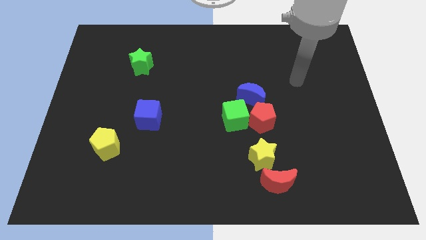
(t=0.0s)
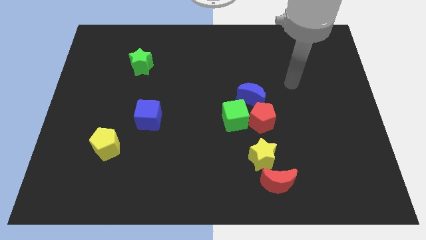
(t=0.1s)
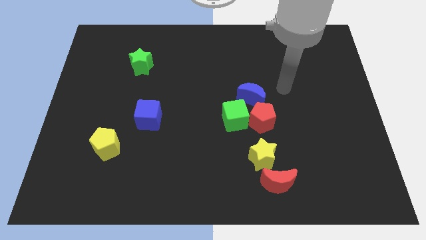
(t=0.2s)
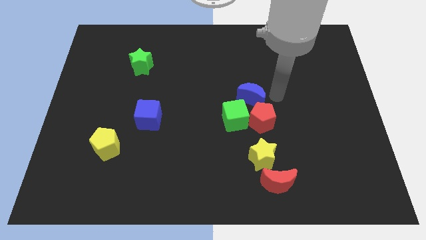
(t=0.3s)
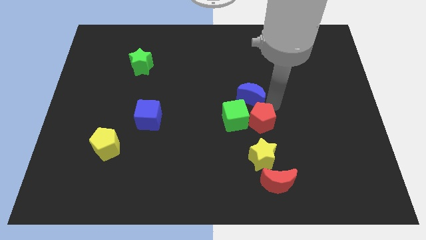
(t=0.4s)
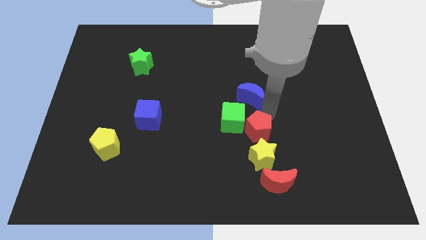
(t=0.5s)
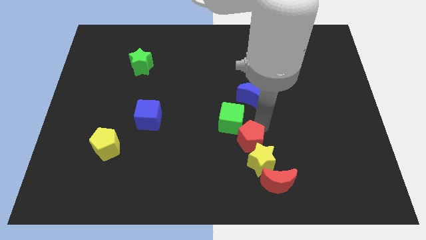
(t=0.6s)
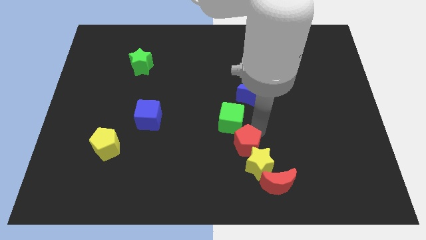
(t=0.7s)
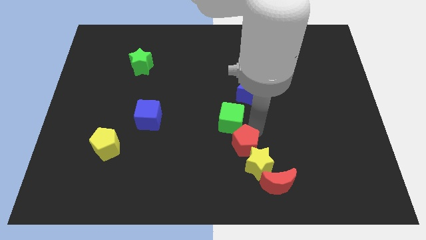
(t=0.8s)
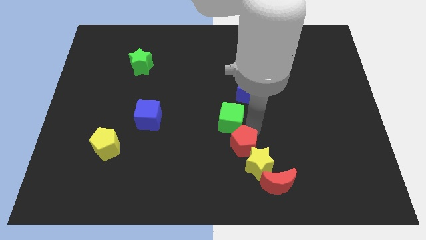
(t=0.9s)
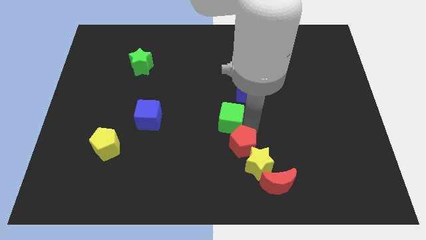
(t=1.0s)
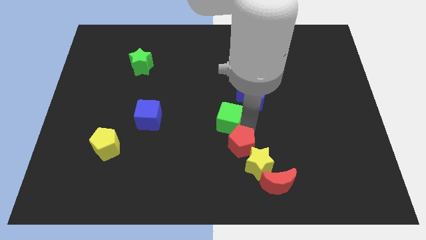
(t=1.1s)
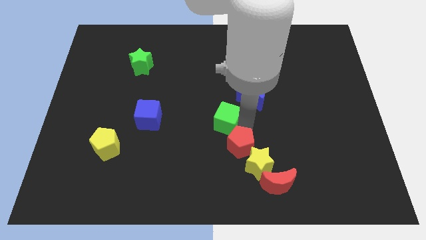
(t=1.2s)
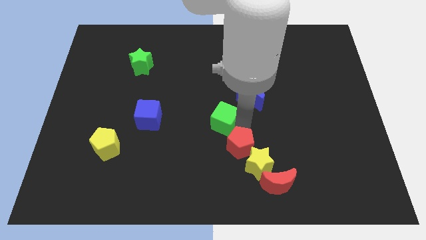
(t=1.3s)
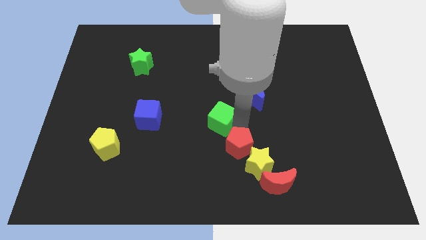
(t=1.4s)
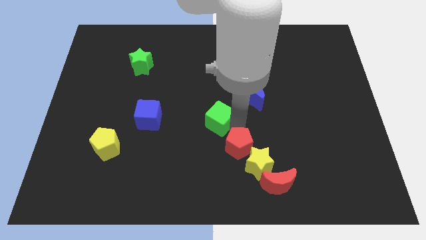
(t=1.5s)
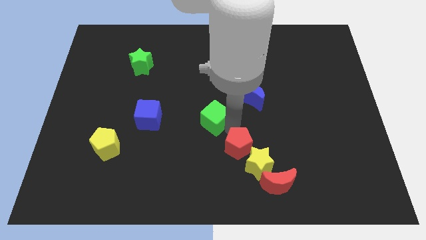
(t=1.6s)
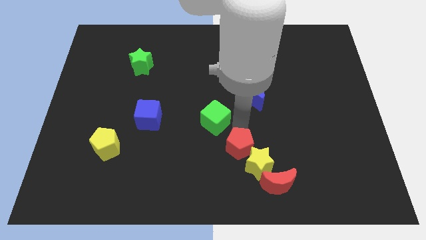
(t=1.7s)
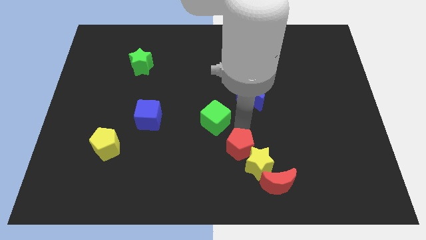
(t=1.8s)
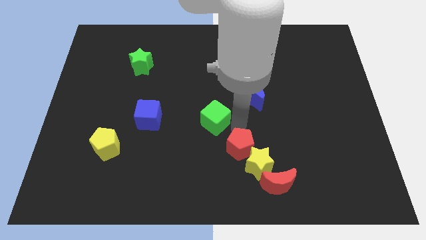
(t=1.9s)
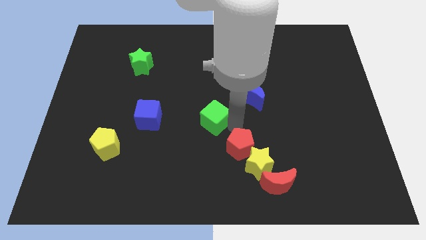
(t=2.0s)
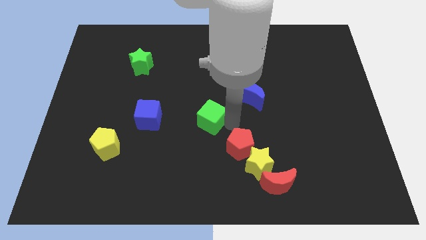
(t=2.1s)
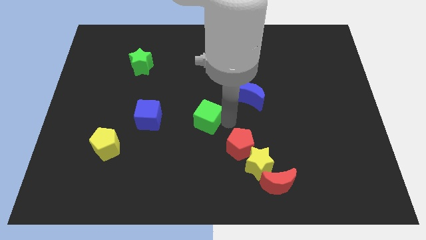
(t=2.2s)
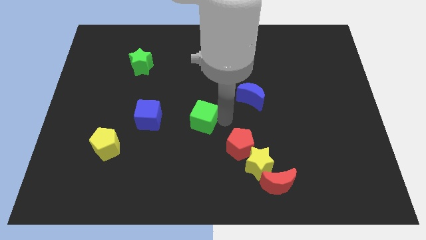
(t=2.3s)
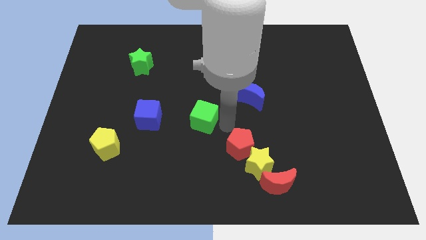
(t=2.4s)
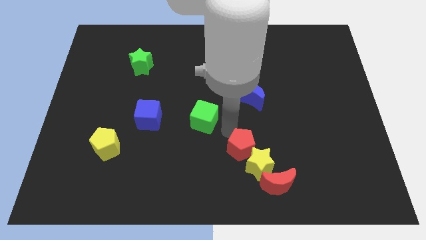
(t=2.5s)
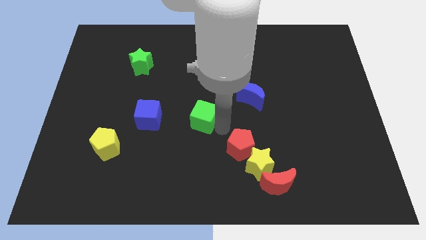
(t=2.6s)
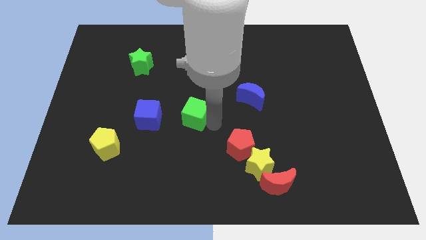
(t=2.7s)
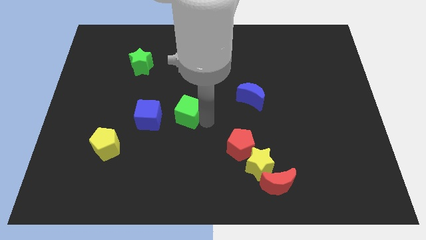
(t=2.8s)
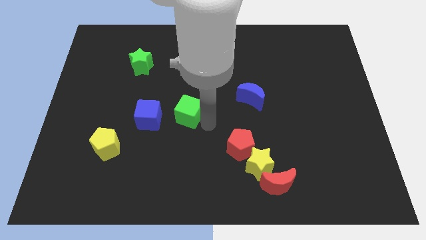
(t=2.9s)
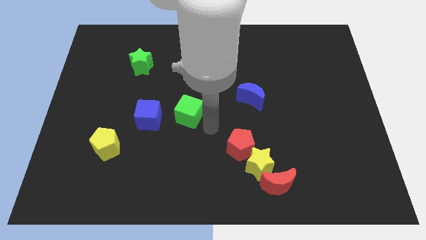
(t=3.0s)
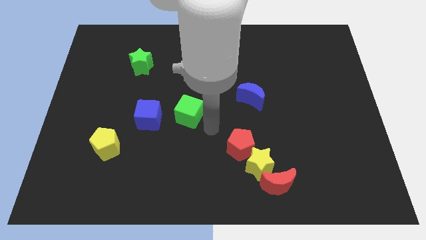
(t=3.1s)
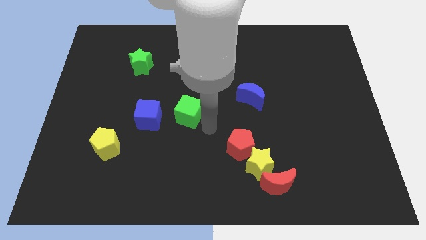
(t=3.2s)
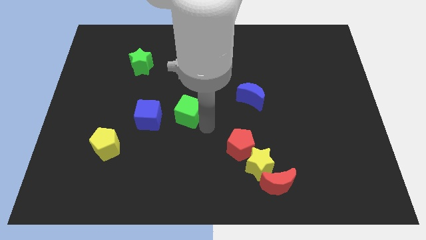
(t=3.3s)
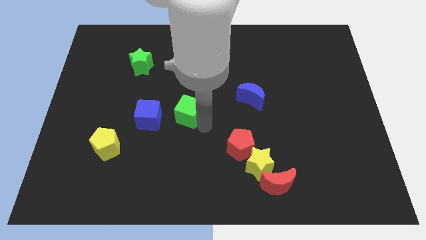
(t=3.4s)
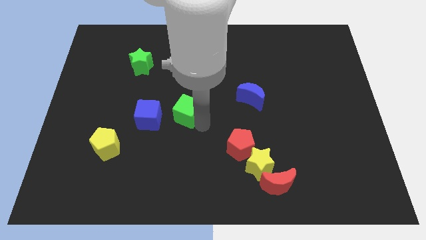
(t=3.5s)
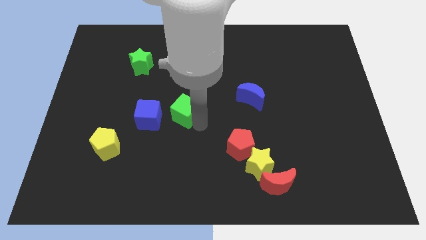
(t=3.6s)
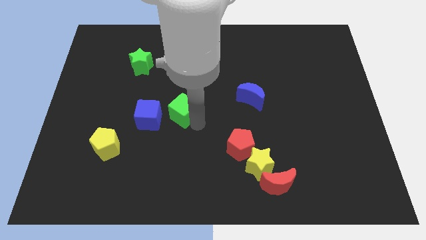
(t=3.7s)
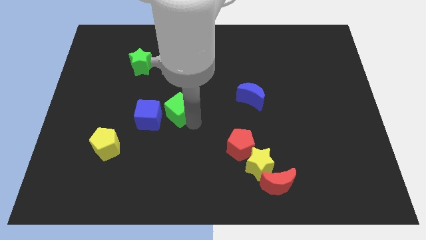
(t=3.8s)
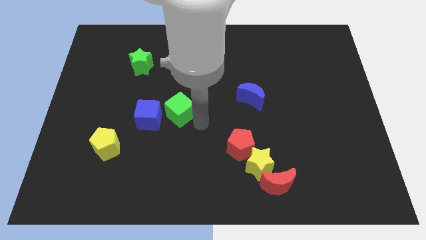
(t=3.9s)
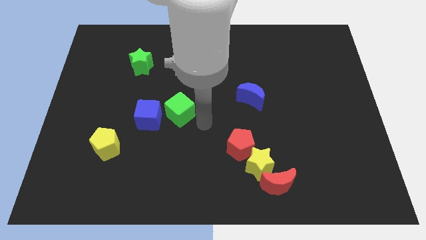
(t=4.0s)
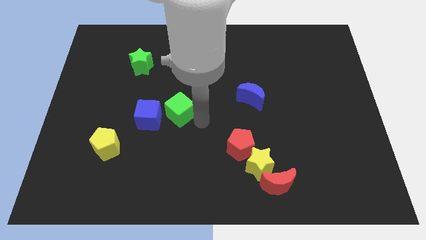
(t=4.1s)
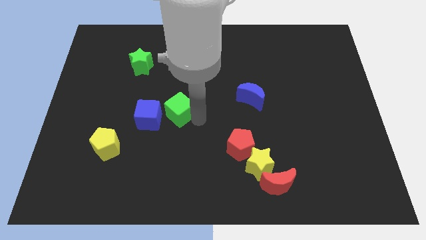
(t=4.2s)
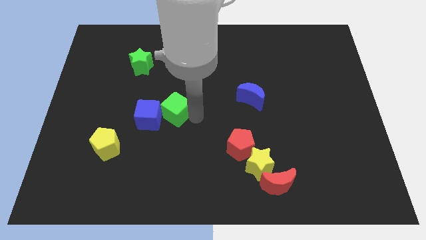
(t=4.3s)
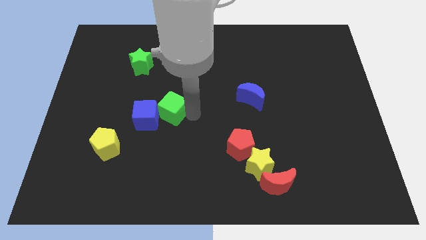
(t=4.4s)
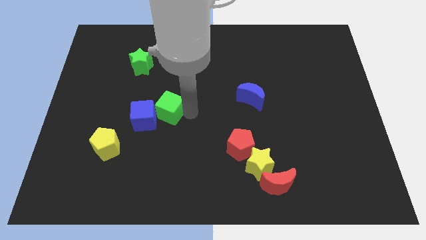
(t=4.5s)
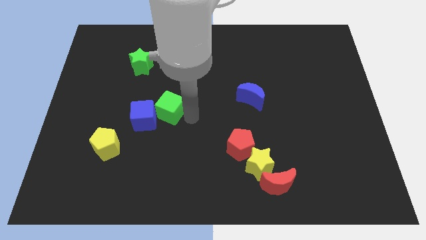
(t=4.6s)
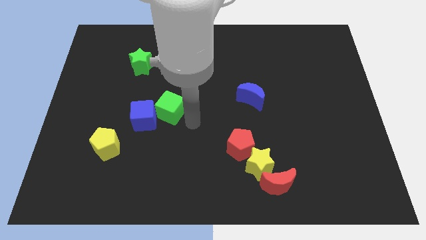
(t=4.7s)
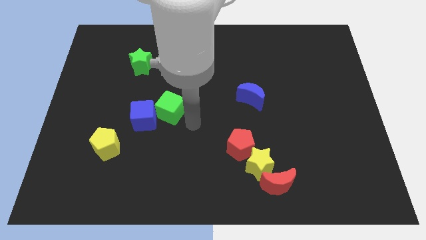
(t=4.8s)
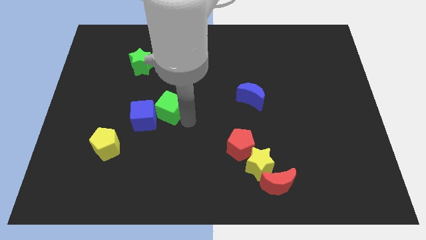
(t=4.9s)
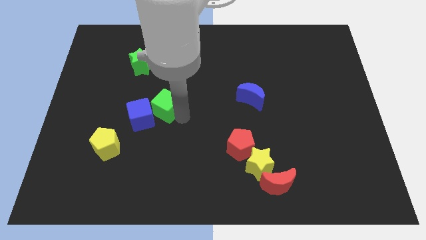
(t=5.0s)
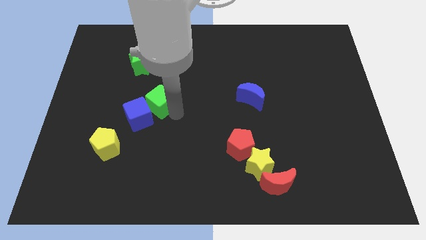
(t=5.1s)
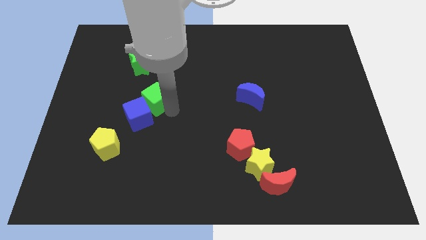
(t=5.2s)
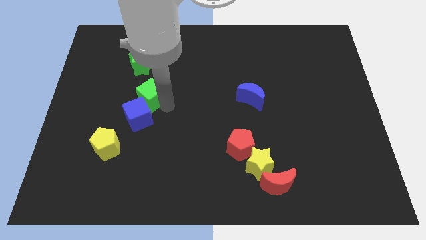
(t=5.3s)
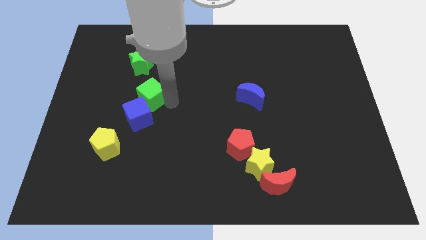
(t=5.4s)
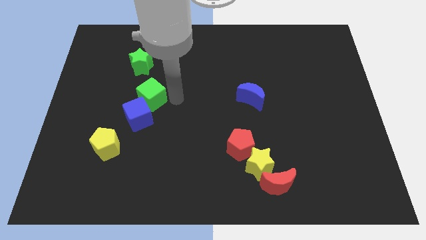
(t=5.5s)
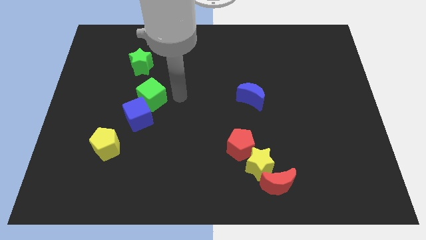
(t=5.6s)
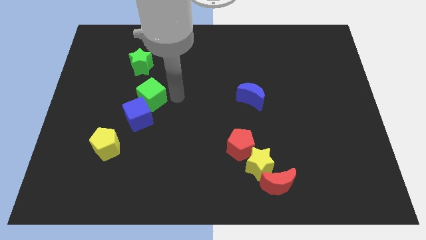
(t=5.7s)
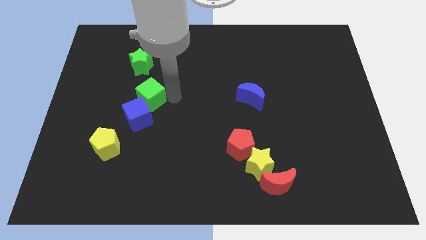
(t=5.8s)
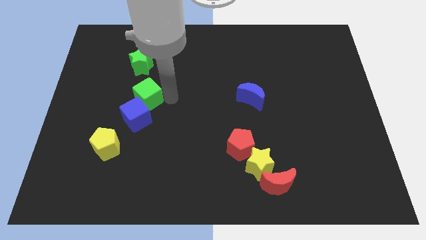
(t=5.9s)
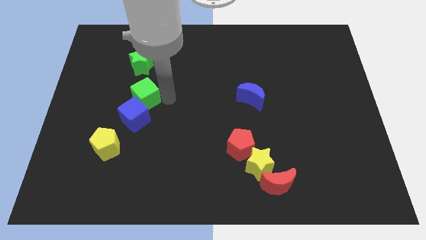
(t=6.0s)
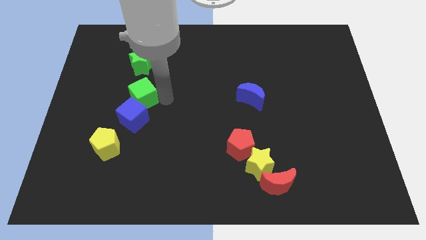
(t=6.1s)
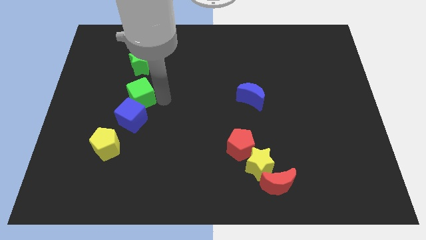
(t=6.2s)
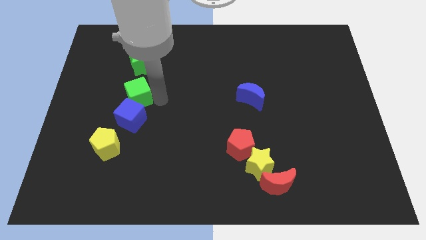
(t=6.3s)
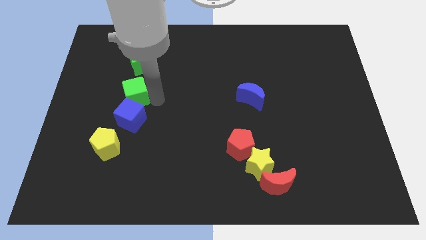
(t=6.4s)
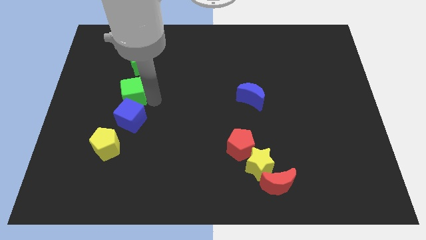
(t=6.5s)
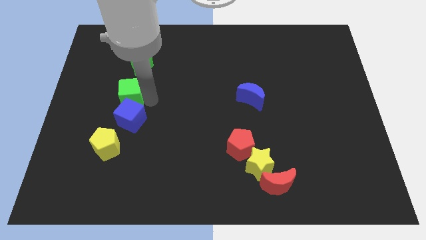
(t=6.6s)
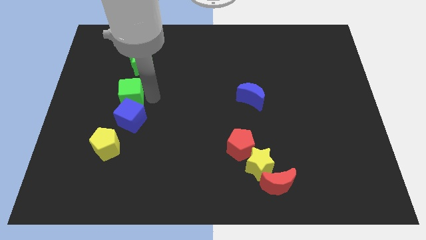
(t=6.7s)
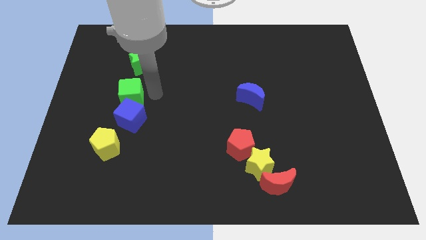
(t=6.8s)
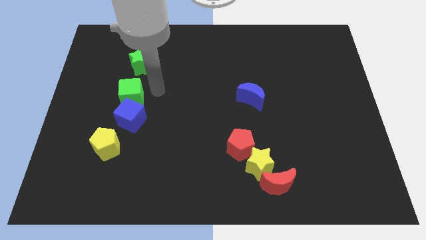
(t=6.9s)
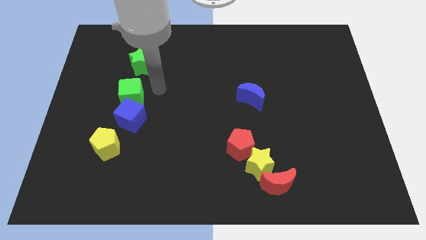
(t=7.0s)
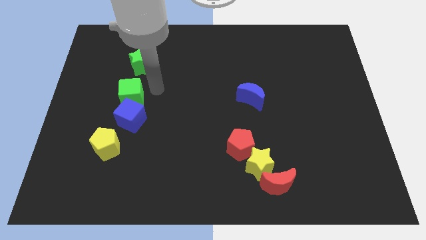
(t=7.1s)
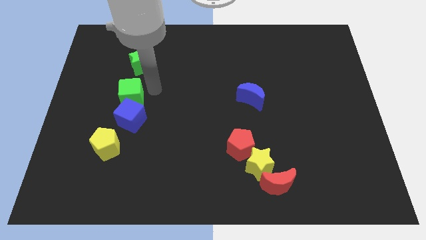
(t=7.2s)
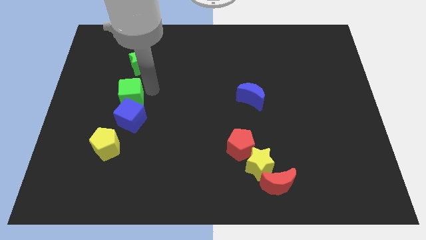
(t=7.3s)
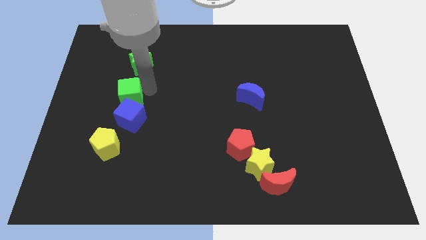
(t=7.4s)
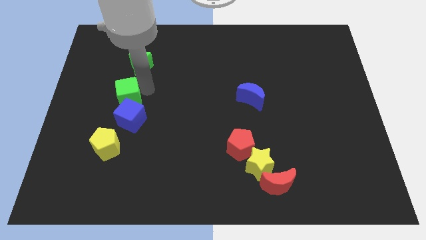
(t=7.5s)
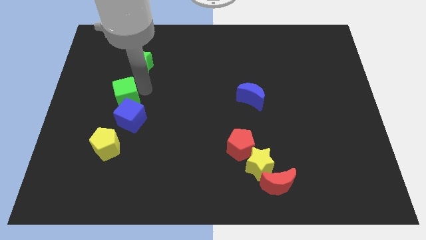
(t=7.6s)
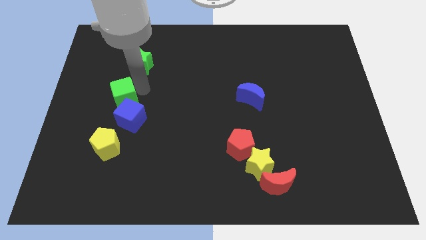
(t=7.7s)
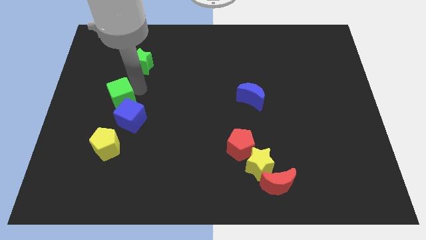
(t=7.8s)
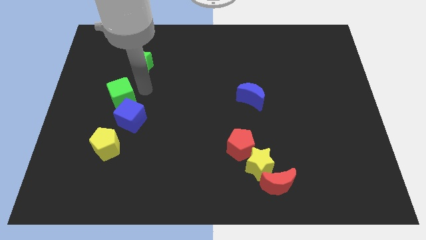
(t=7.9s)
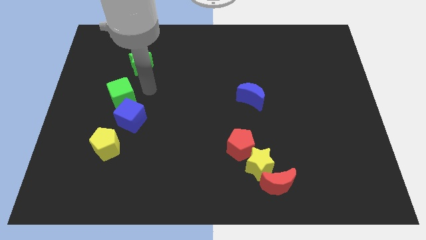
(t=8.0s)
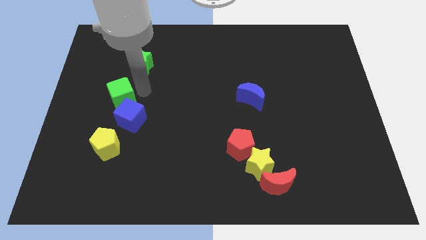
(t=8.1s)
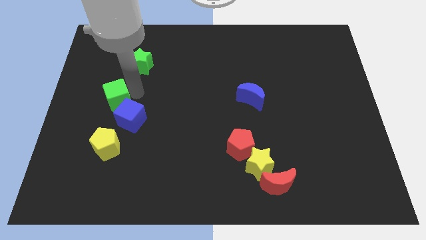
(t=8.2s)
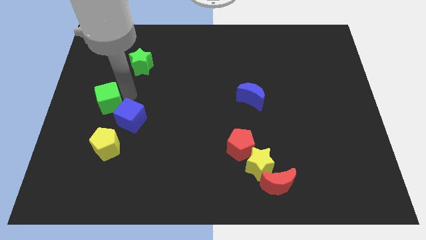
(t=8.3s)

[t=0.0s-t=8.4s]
put the green cube to the left side
